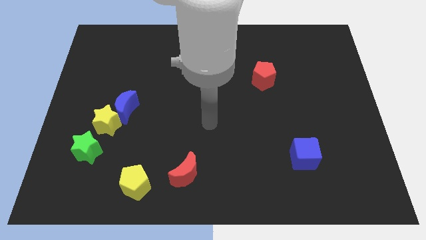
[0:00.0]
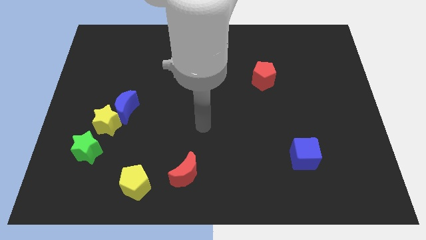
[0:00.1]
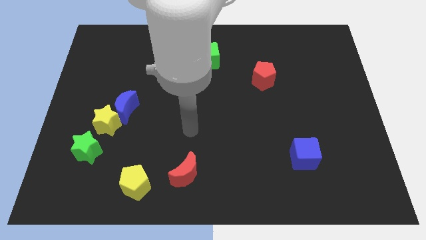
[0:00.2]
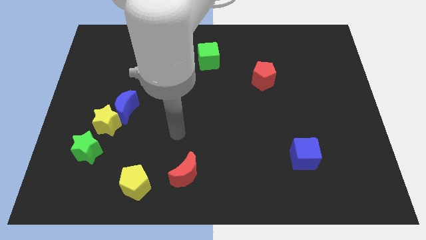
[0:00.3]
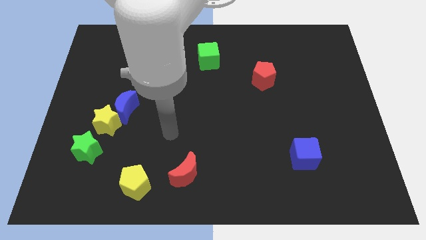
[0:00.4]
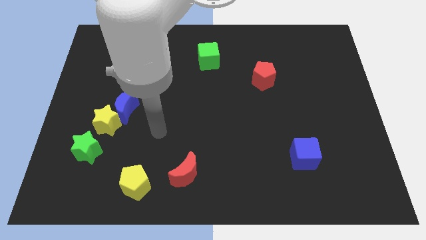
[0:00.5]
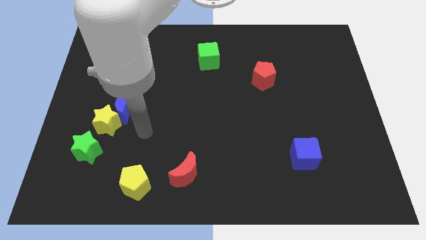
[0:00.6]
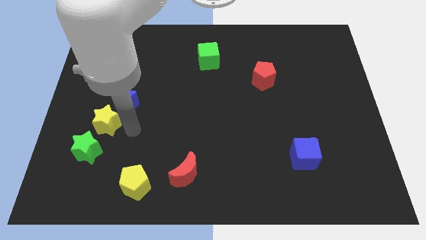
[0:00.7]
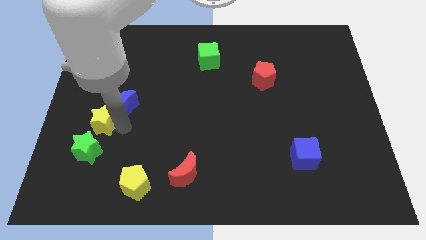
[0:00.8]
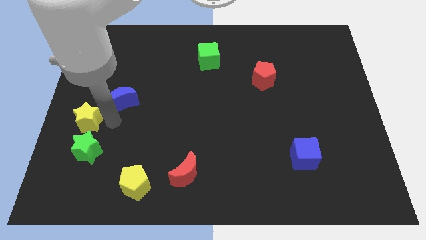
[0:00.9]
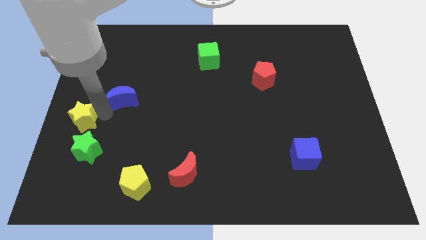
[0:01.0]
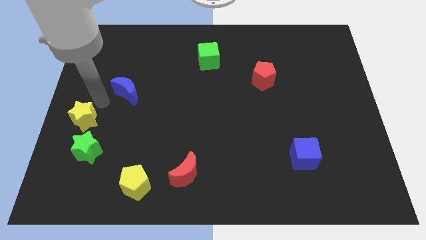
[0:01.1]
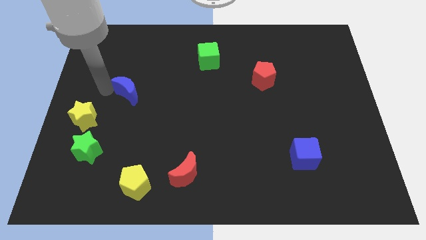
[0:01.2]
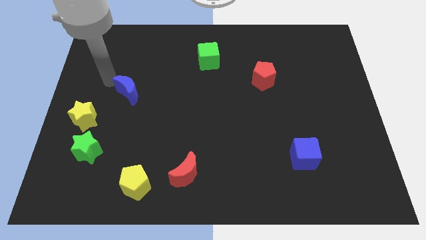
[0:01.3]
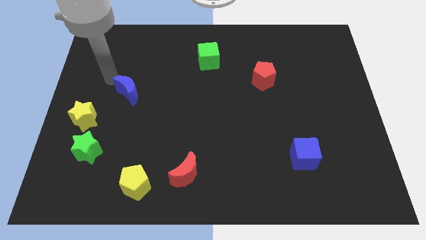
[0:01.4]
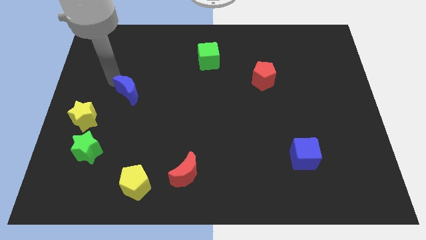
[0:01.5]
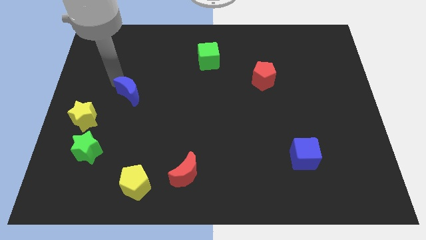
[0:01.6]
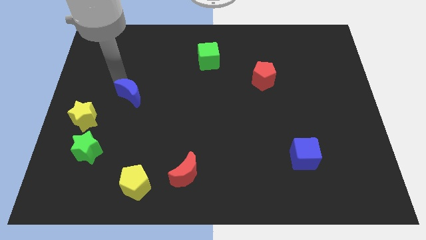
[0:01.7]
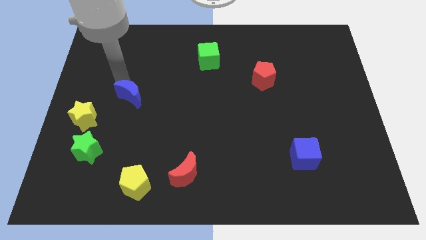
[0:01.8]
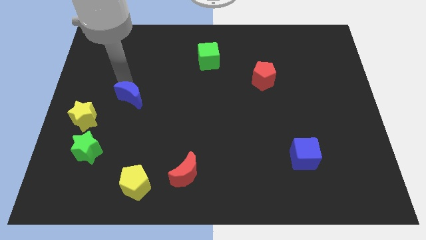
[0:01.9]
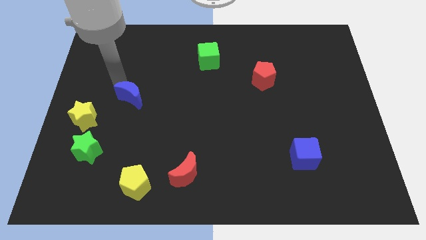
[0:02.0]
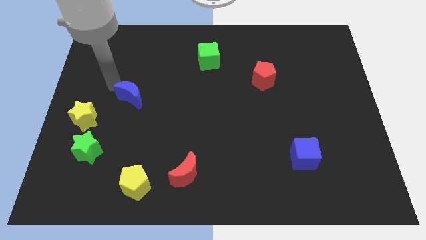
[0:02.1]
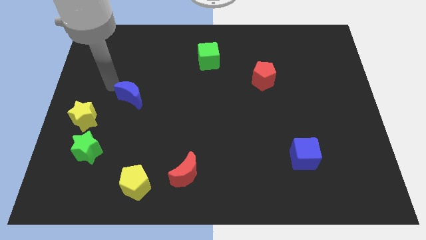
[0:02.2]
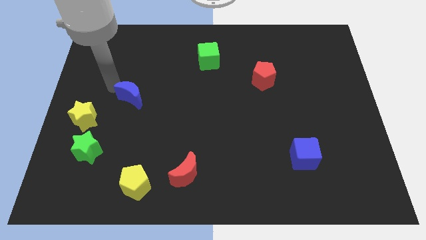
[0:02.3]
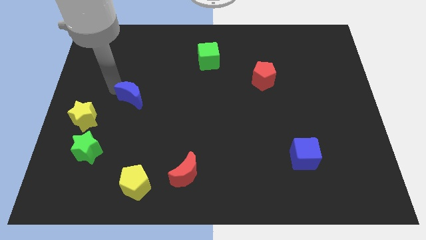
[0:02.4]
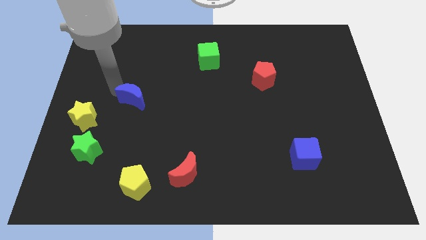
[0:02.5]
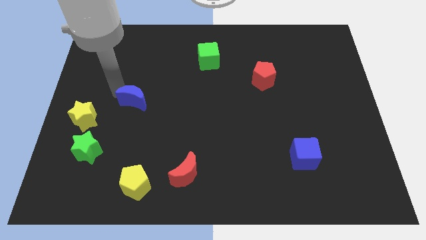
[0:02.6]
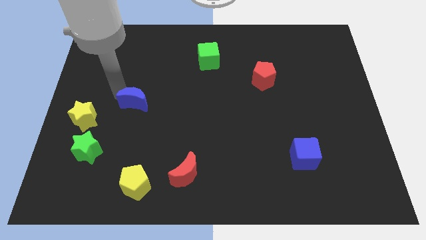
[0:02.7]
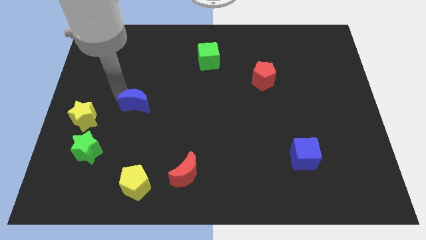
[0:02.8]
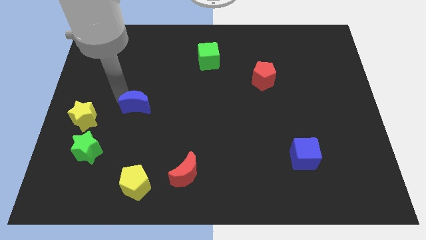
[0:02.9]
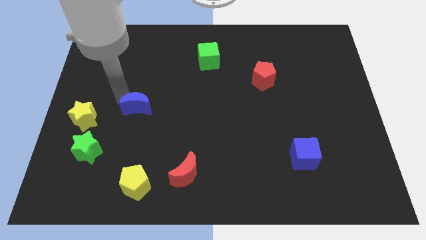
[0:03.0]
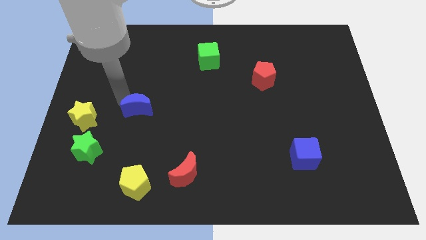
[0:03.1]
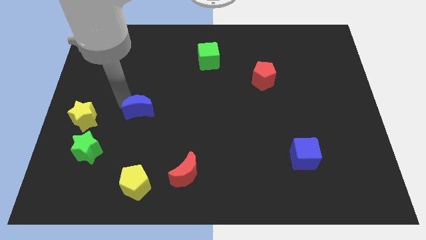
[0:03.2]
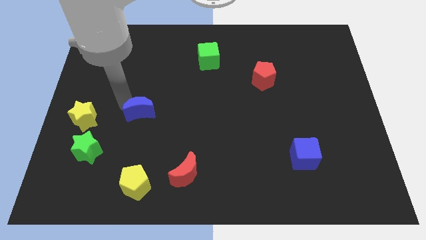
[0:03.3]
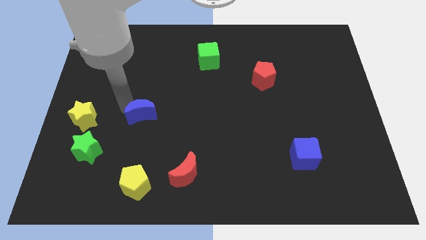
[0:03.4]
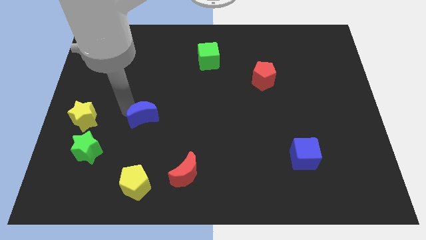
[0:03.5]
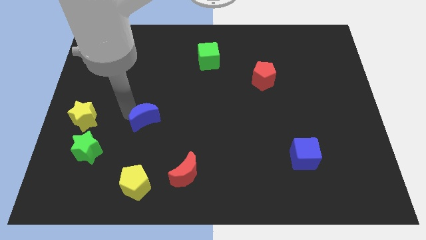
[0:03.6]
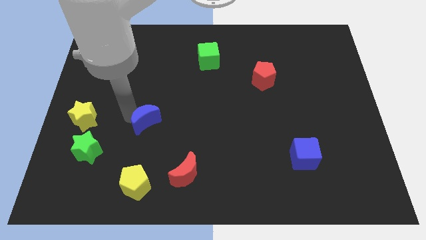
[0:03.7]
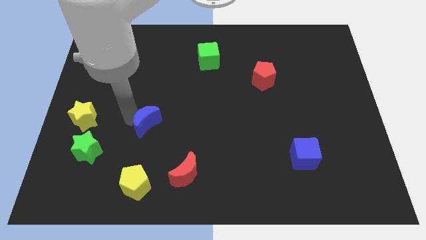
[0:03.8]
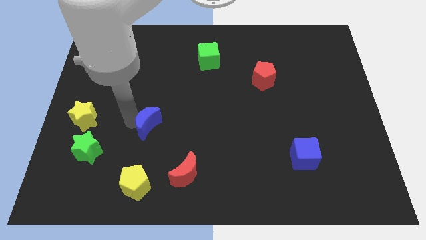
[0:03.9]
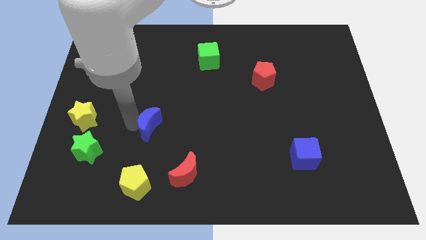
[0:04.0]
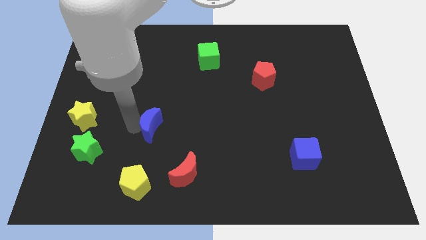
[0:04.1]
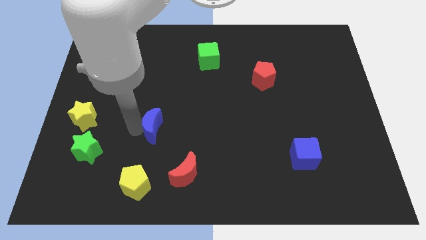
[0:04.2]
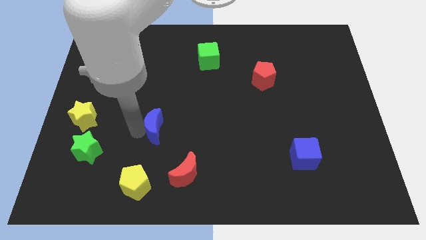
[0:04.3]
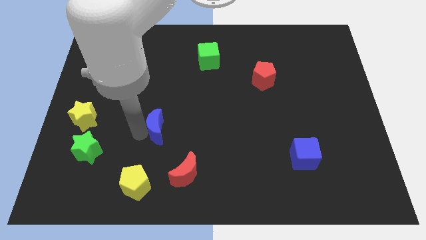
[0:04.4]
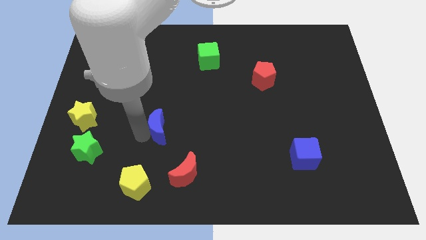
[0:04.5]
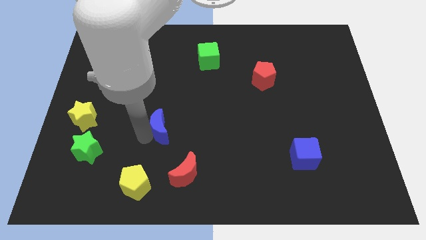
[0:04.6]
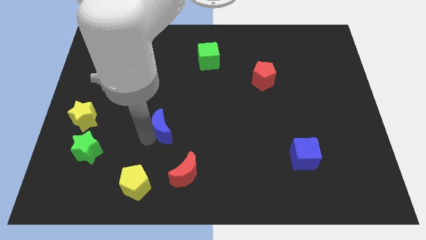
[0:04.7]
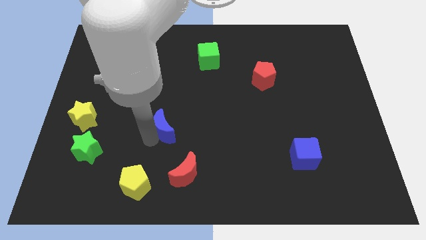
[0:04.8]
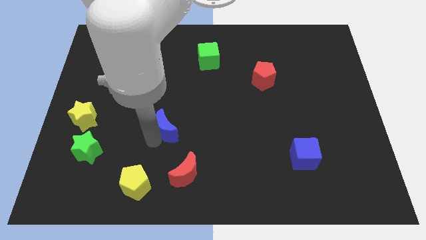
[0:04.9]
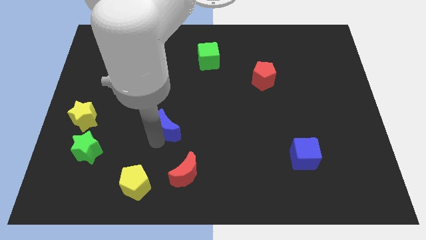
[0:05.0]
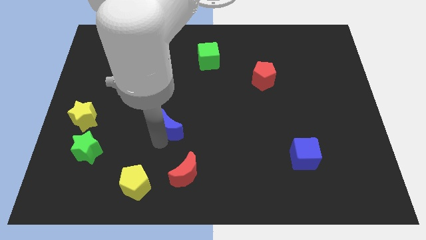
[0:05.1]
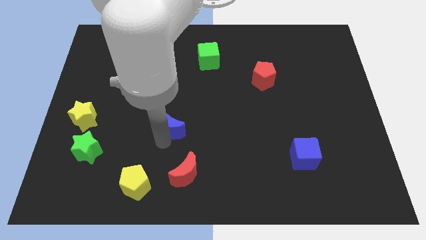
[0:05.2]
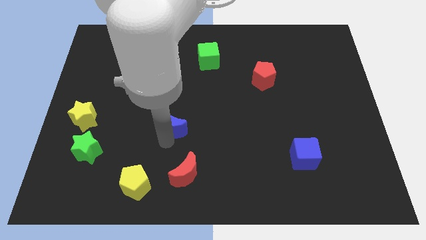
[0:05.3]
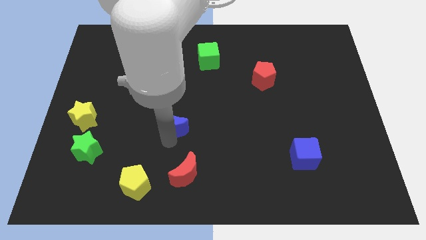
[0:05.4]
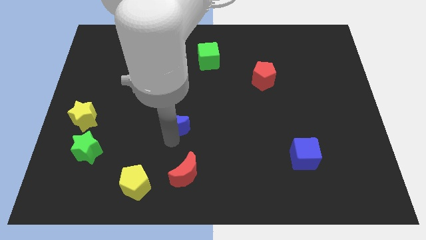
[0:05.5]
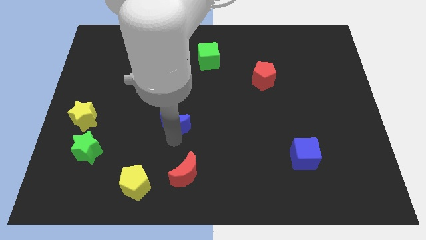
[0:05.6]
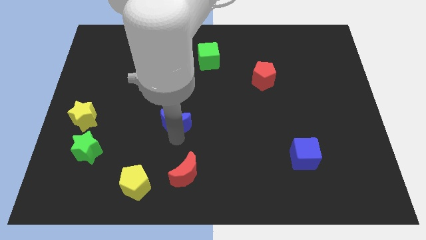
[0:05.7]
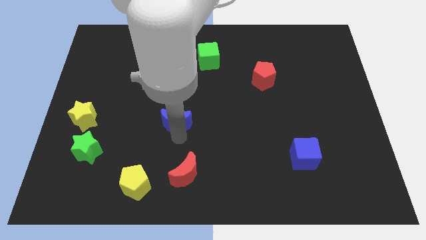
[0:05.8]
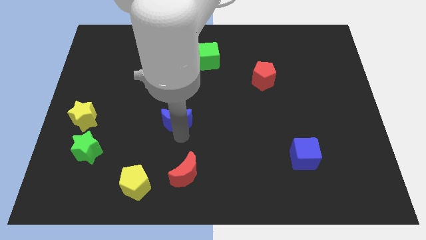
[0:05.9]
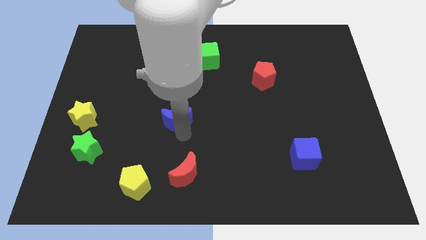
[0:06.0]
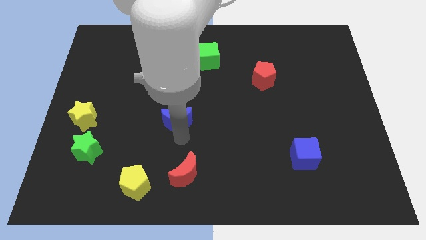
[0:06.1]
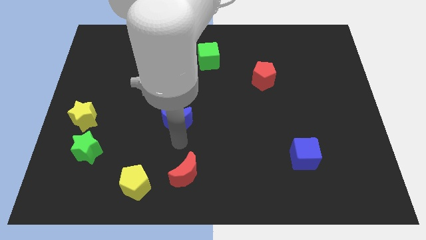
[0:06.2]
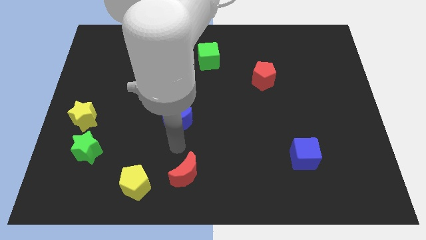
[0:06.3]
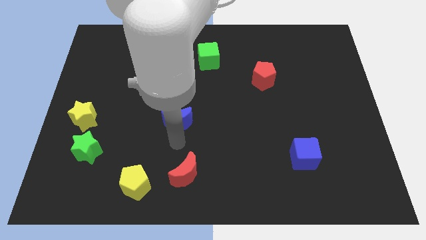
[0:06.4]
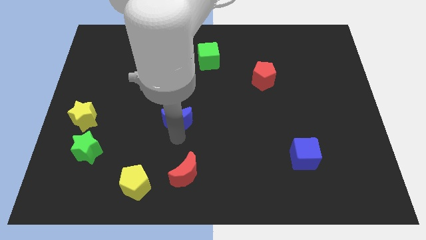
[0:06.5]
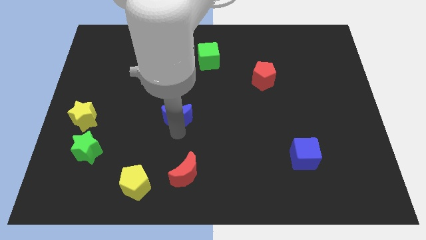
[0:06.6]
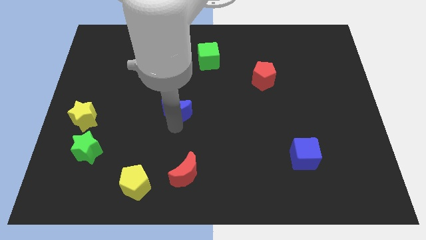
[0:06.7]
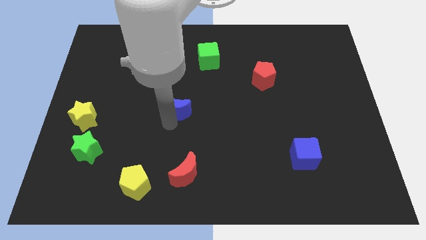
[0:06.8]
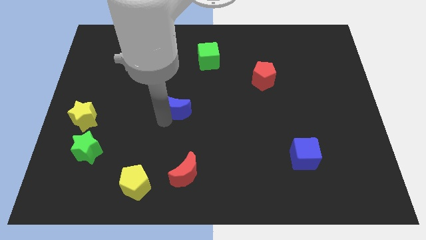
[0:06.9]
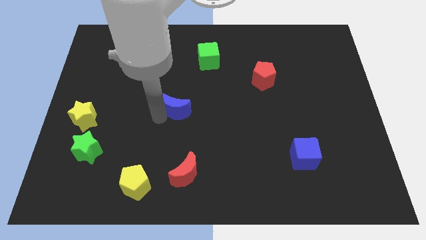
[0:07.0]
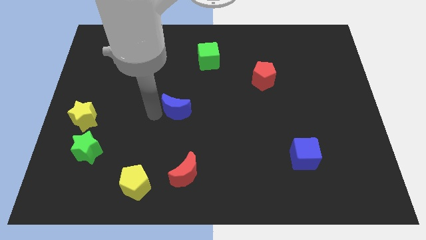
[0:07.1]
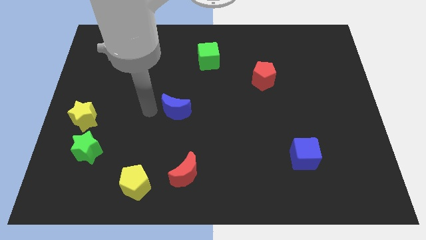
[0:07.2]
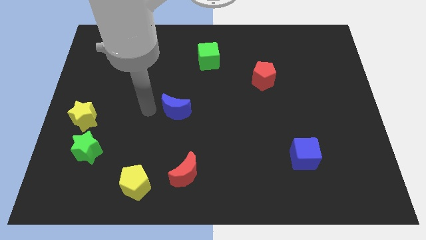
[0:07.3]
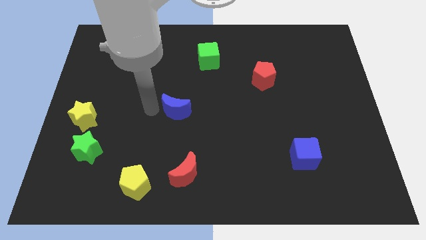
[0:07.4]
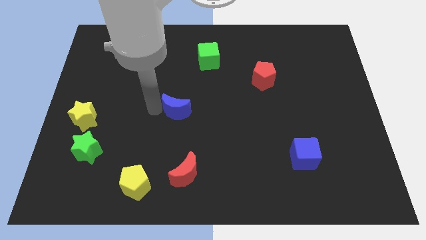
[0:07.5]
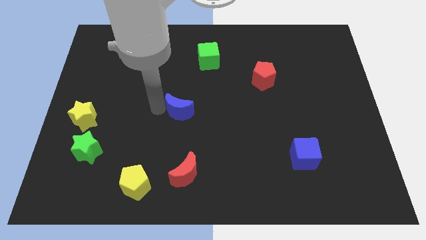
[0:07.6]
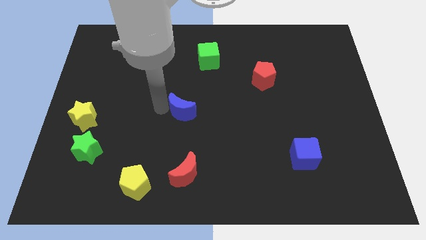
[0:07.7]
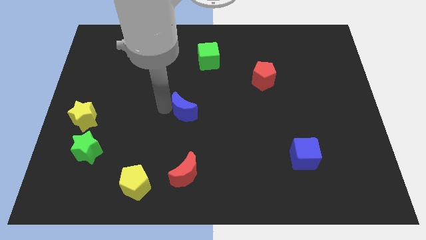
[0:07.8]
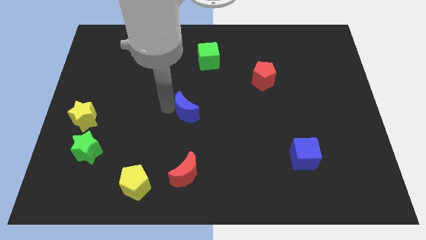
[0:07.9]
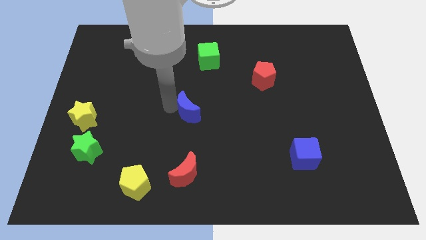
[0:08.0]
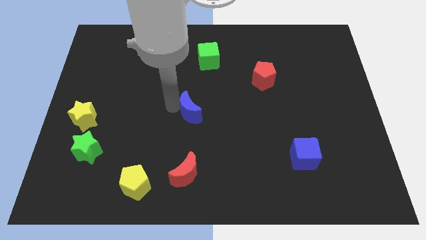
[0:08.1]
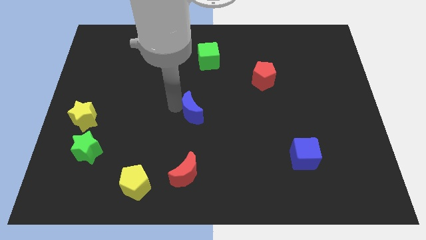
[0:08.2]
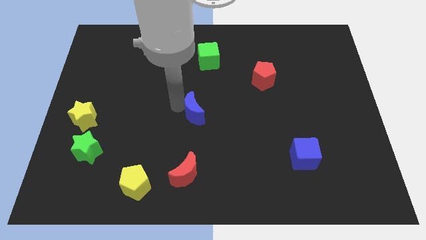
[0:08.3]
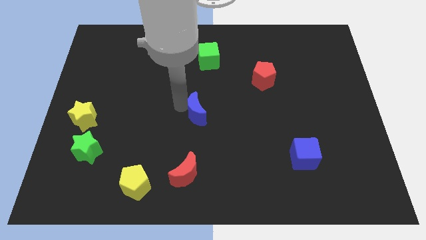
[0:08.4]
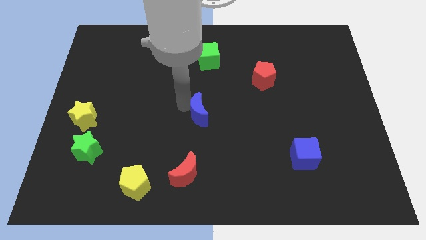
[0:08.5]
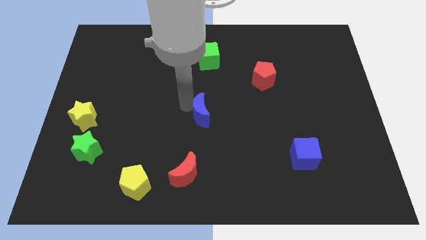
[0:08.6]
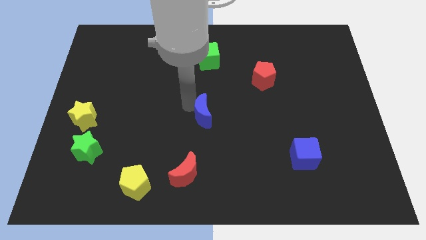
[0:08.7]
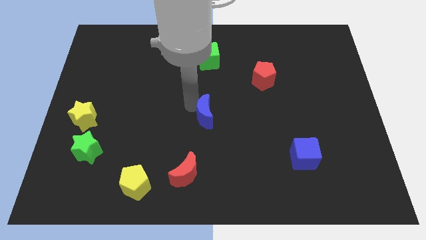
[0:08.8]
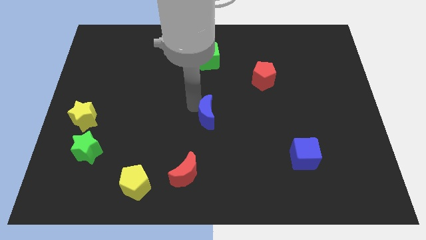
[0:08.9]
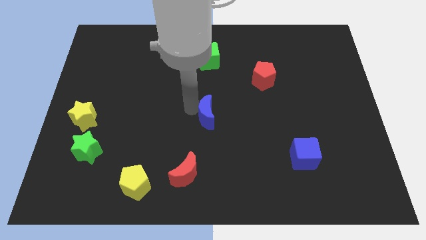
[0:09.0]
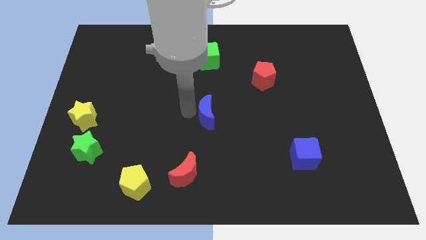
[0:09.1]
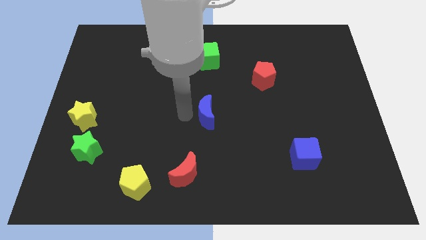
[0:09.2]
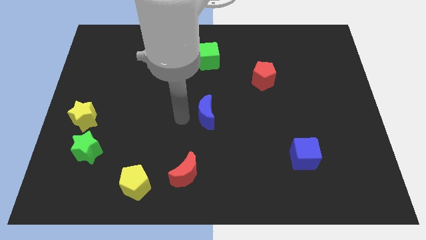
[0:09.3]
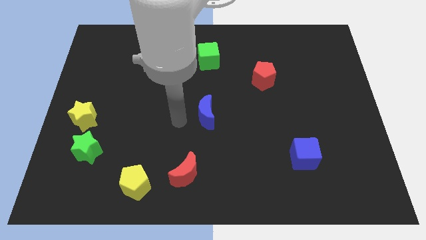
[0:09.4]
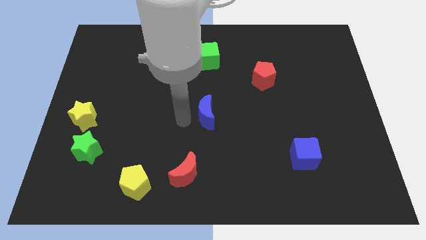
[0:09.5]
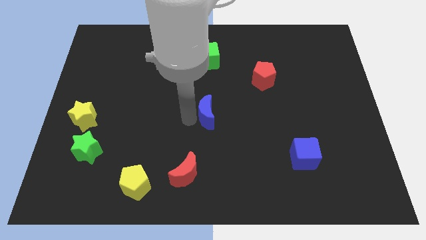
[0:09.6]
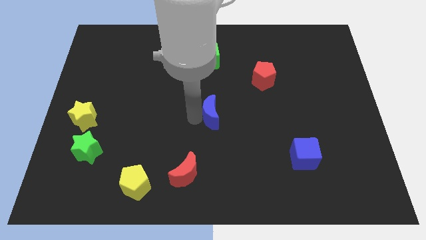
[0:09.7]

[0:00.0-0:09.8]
slide the blue moon right
